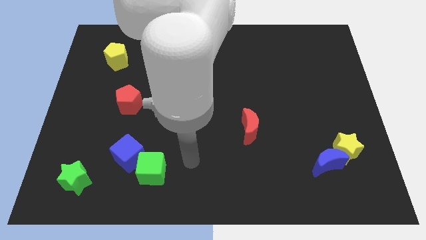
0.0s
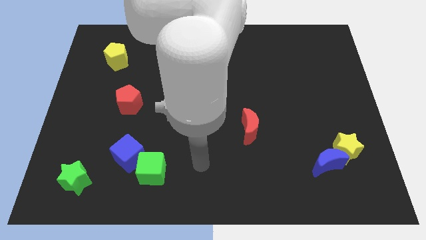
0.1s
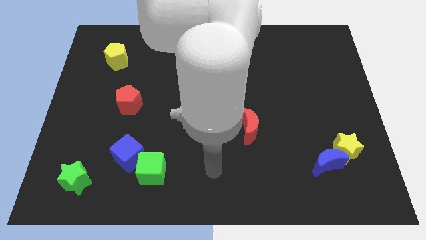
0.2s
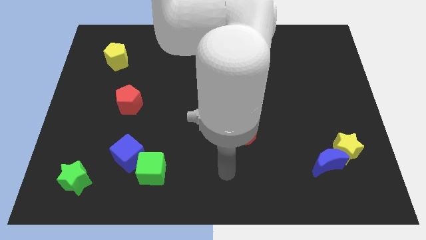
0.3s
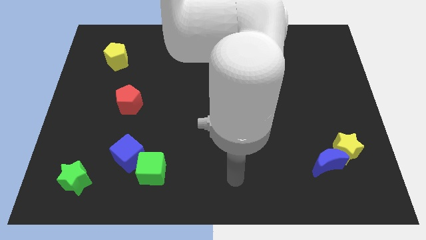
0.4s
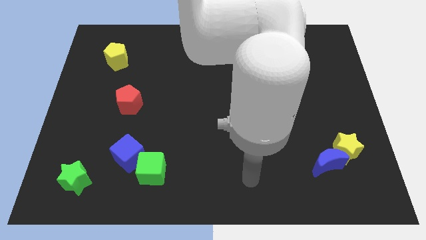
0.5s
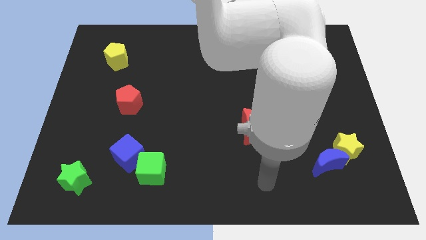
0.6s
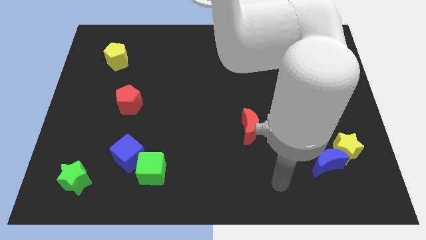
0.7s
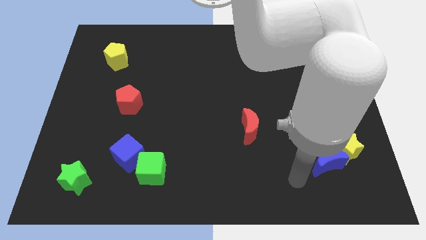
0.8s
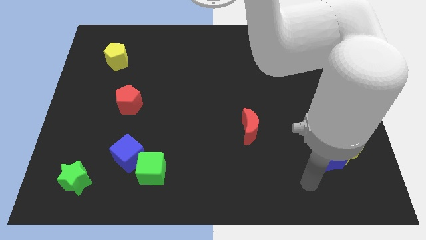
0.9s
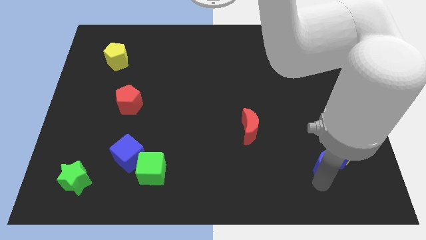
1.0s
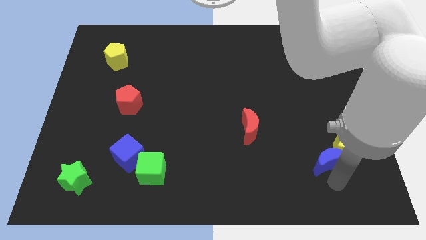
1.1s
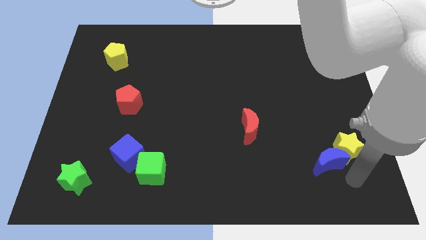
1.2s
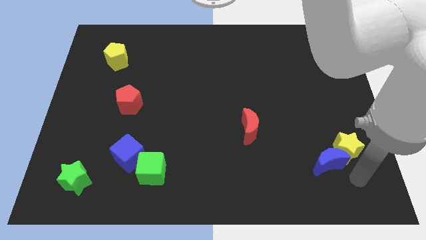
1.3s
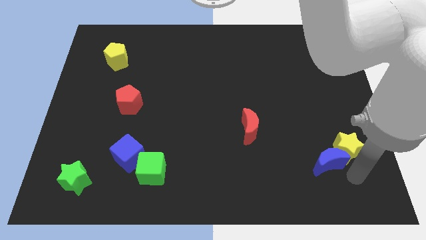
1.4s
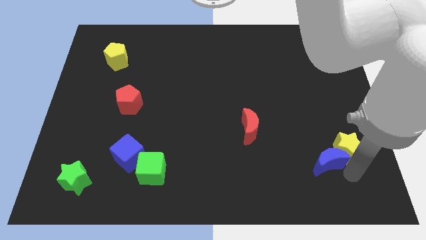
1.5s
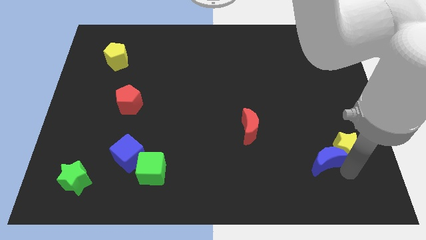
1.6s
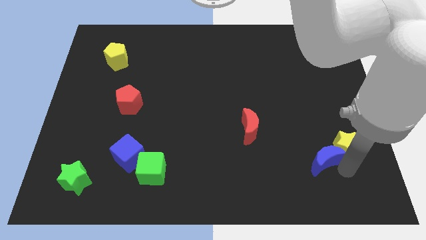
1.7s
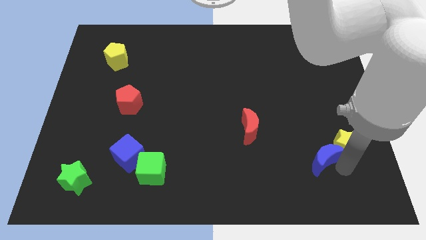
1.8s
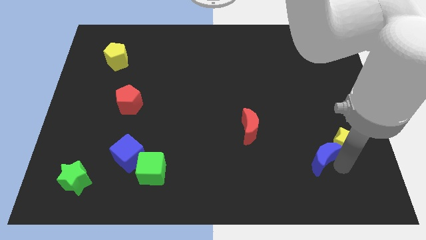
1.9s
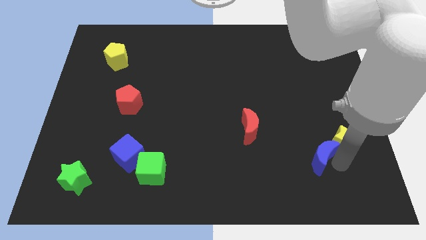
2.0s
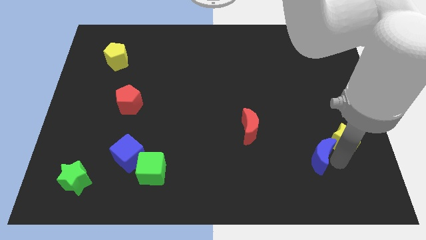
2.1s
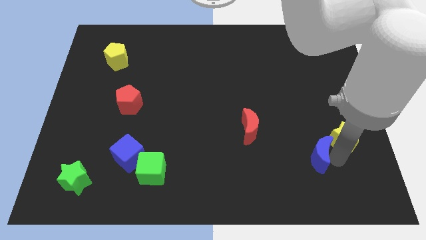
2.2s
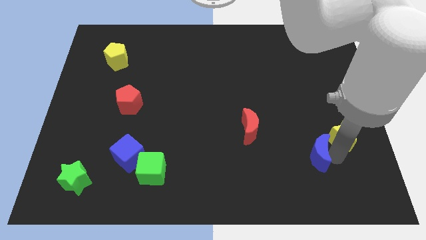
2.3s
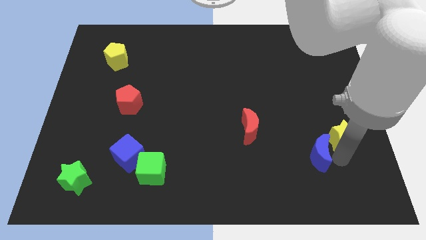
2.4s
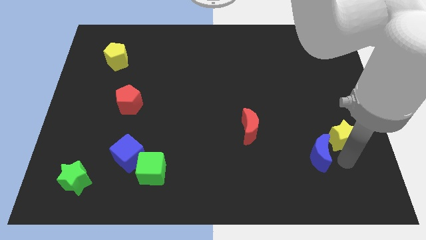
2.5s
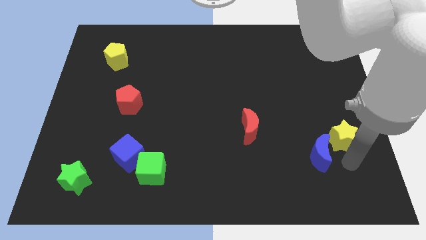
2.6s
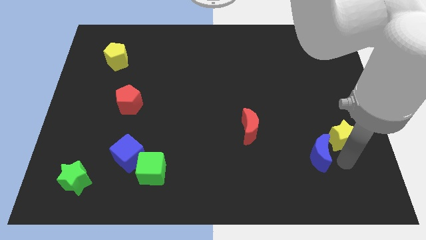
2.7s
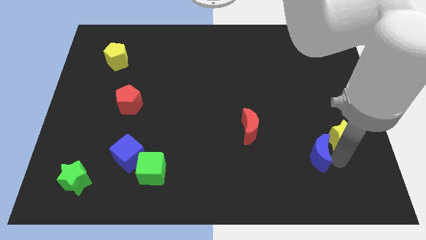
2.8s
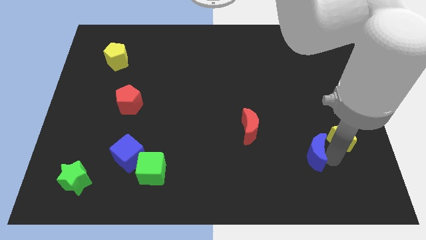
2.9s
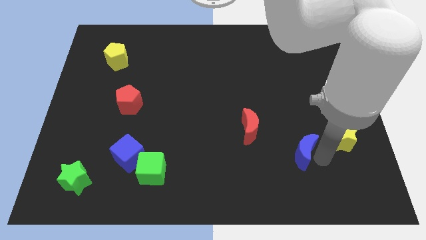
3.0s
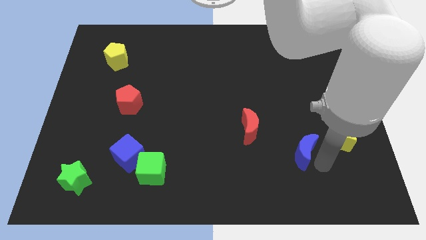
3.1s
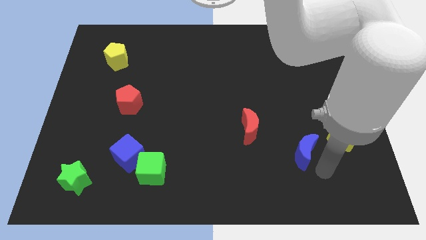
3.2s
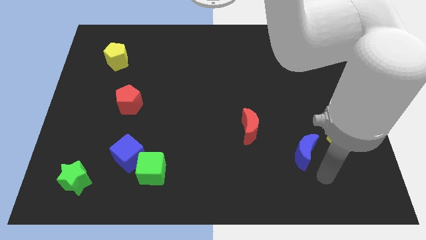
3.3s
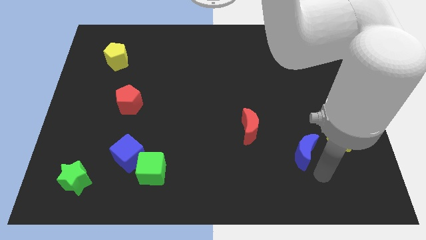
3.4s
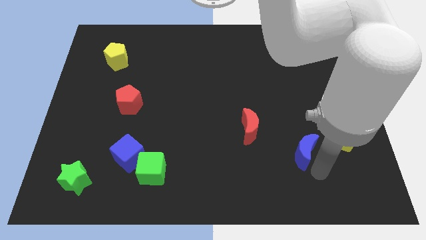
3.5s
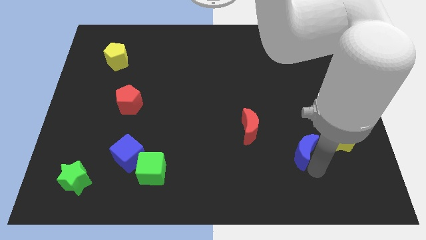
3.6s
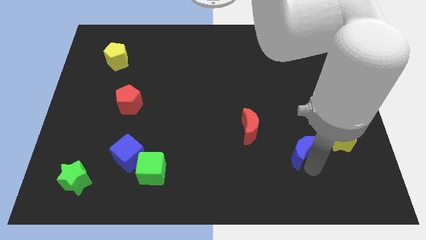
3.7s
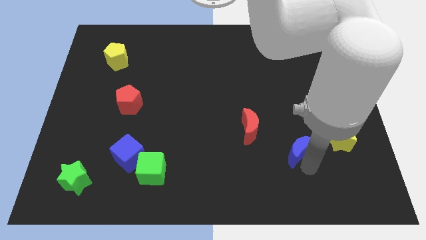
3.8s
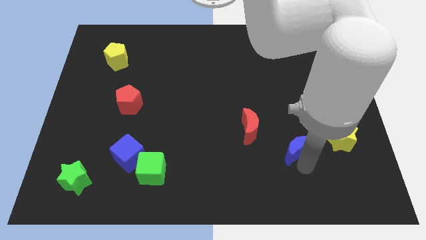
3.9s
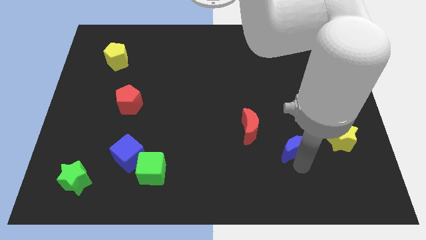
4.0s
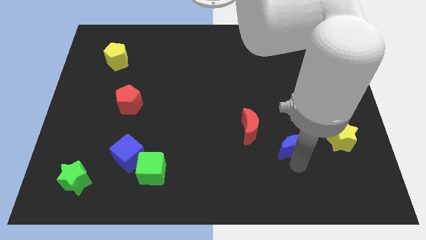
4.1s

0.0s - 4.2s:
slightly move the blue moon up and left

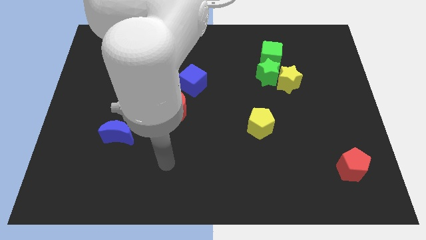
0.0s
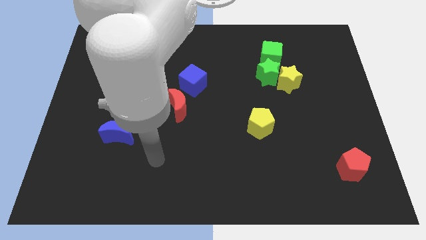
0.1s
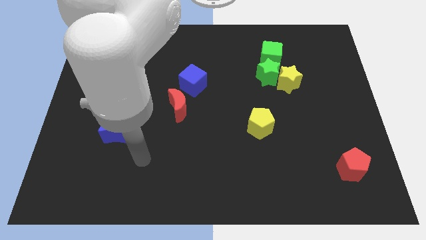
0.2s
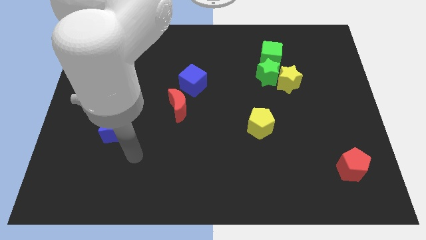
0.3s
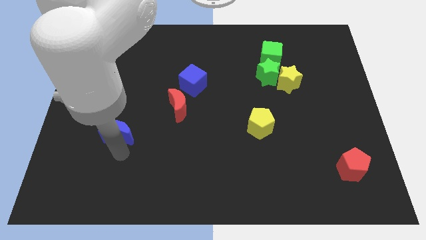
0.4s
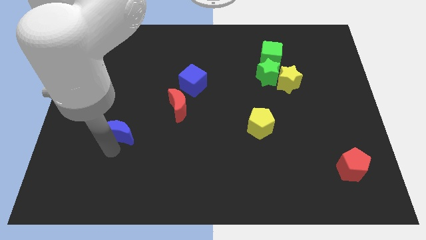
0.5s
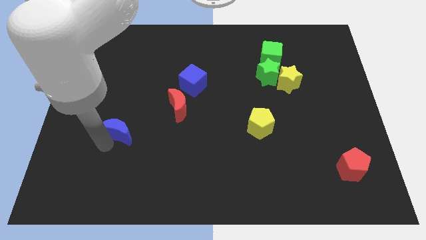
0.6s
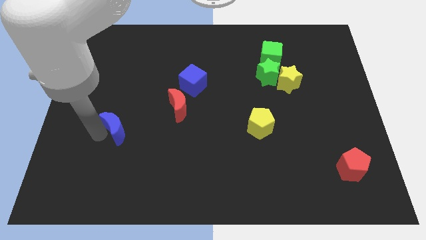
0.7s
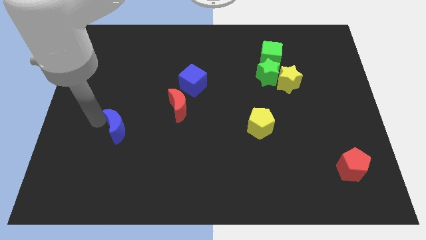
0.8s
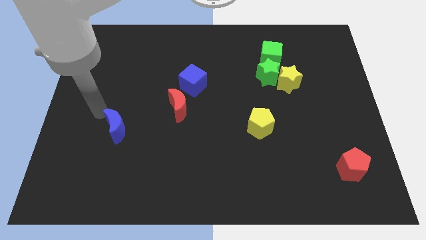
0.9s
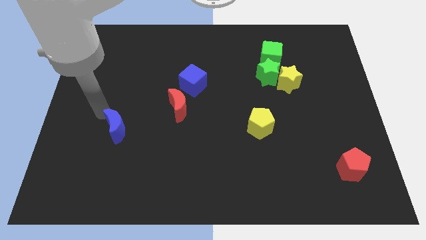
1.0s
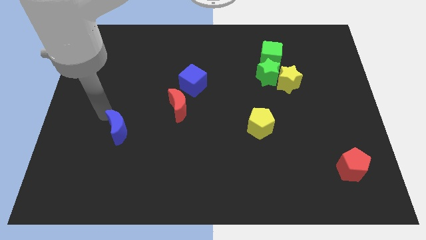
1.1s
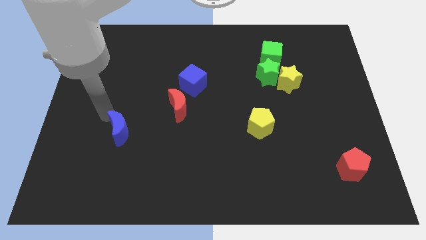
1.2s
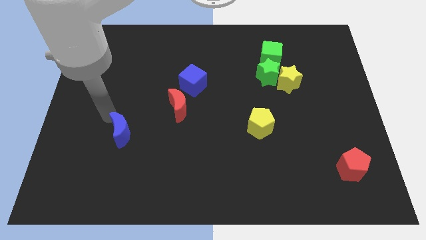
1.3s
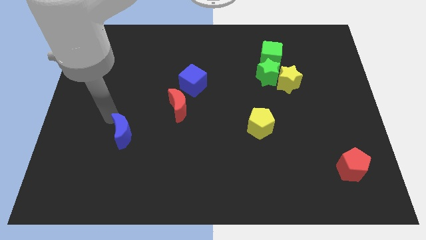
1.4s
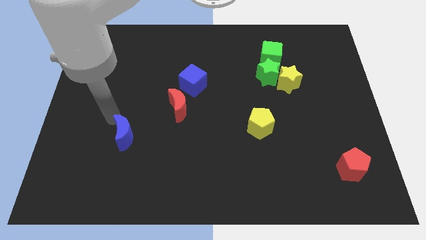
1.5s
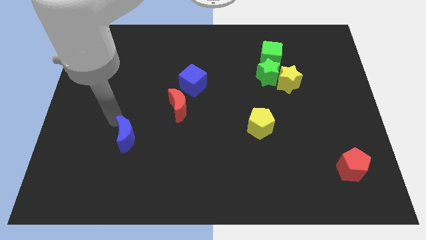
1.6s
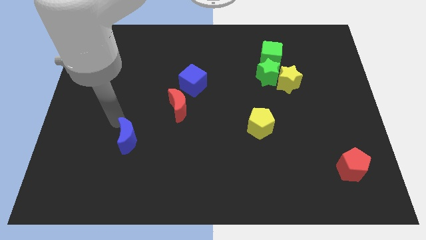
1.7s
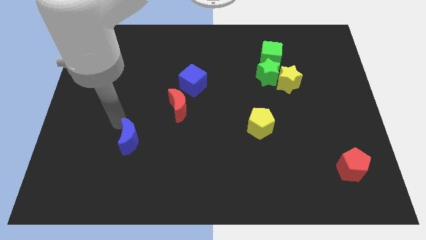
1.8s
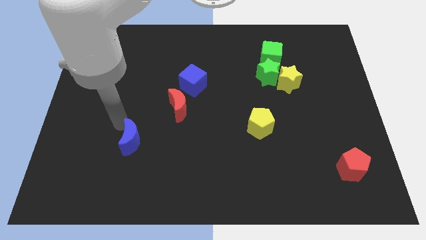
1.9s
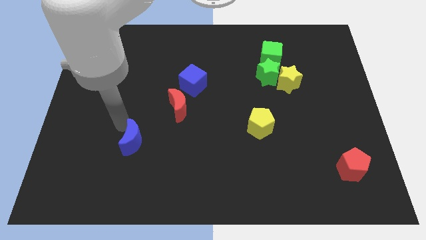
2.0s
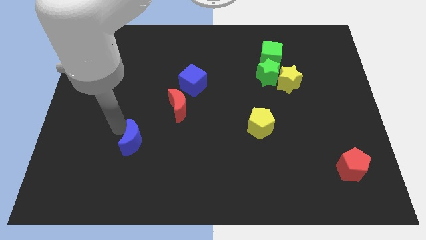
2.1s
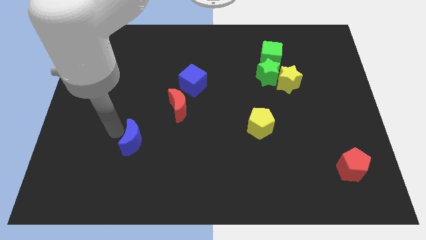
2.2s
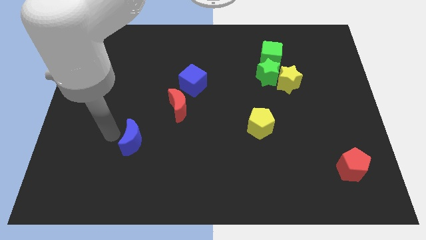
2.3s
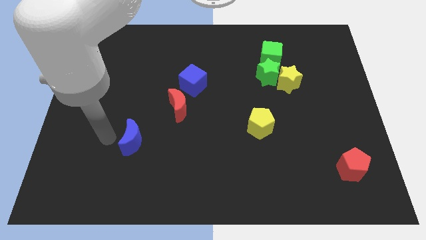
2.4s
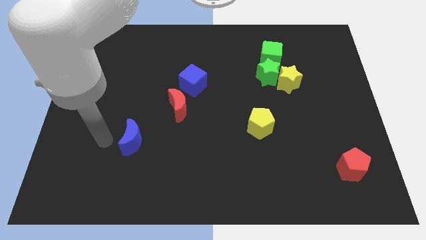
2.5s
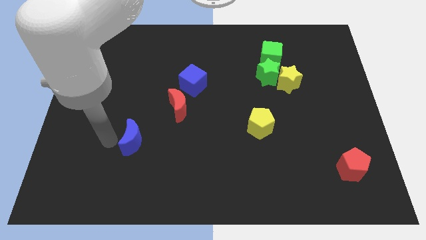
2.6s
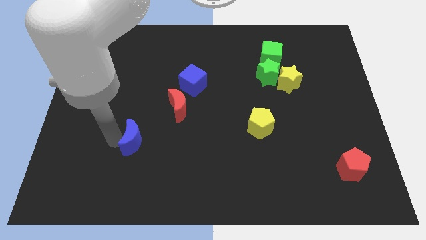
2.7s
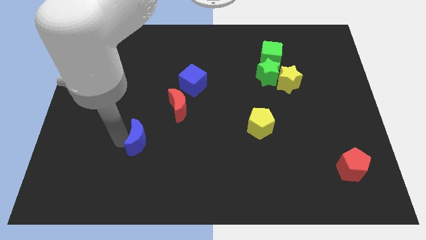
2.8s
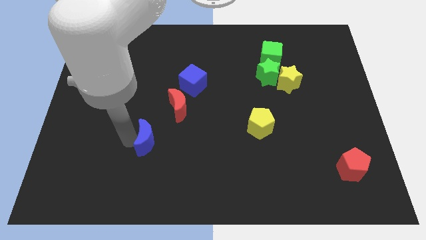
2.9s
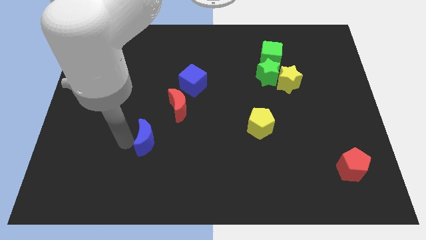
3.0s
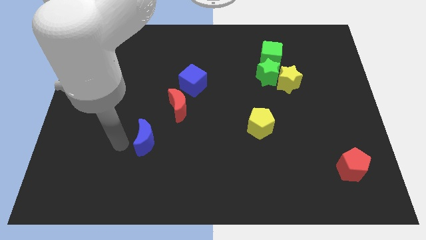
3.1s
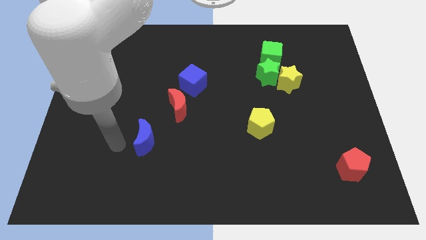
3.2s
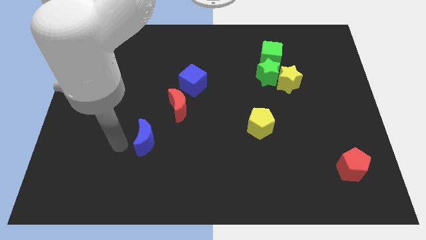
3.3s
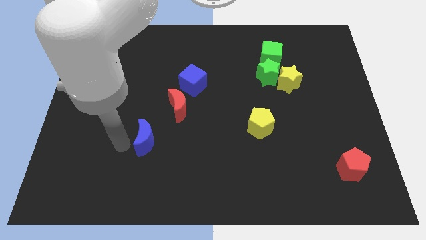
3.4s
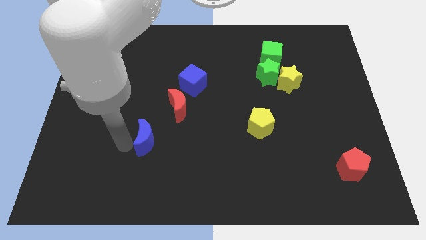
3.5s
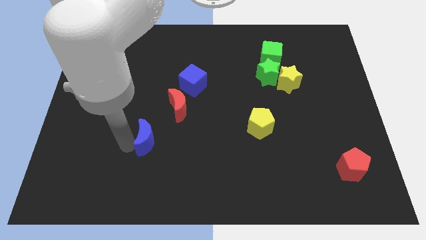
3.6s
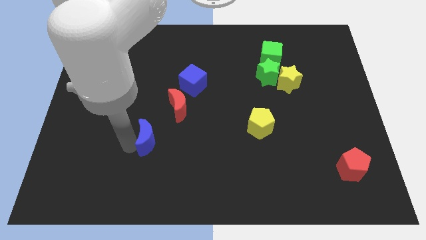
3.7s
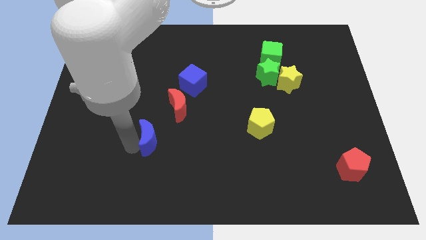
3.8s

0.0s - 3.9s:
move the blue moon to the right slightly
